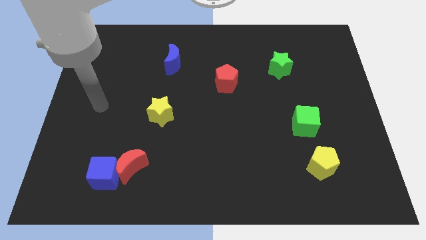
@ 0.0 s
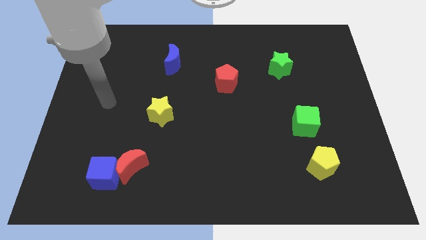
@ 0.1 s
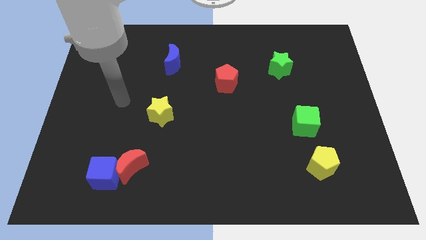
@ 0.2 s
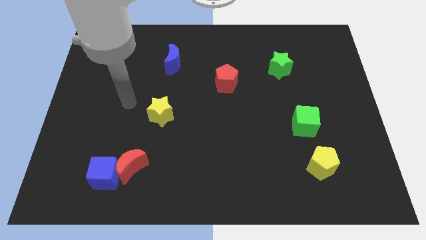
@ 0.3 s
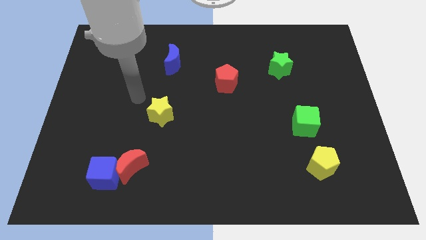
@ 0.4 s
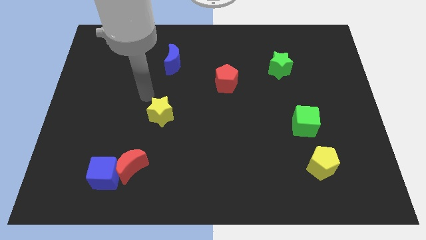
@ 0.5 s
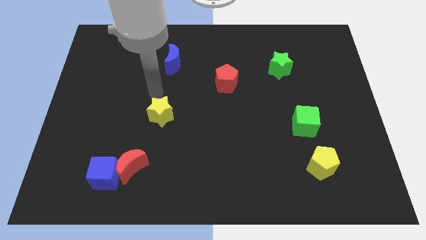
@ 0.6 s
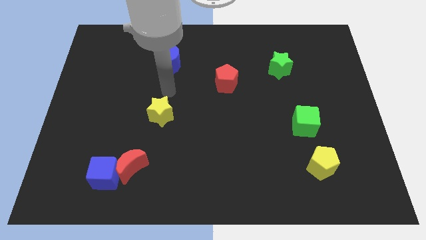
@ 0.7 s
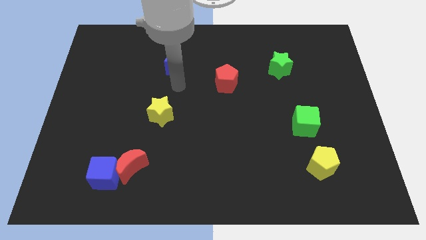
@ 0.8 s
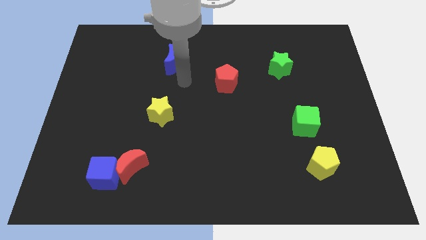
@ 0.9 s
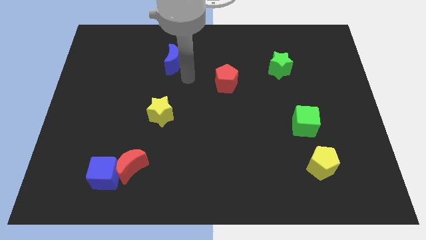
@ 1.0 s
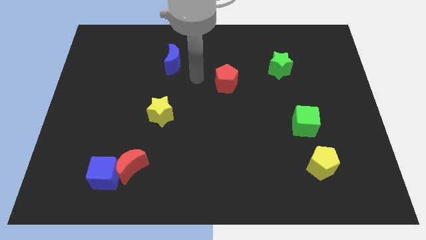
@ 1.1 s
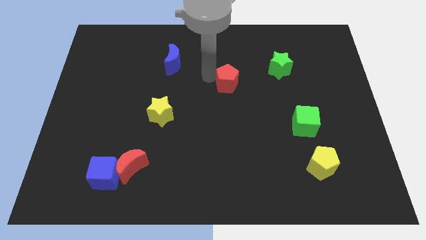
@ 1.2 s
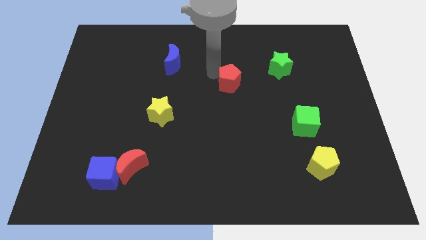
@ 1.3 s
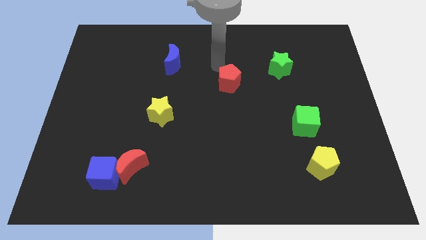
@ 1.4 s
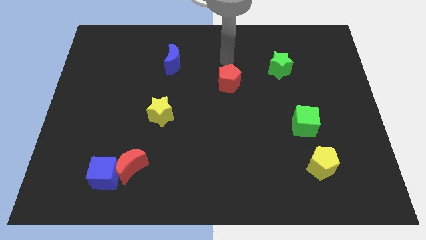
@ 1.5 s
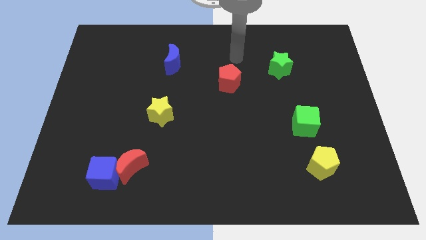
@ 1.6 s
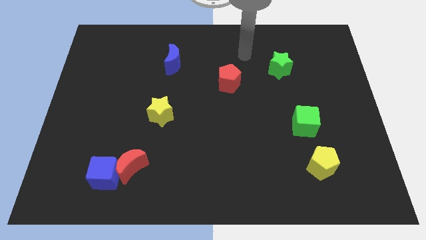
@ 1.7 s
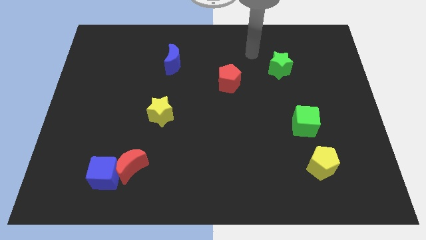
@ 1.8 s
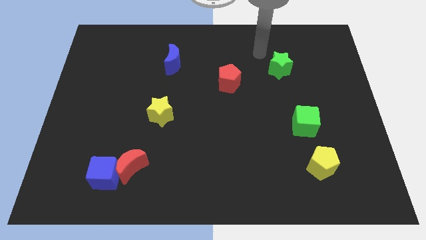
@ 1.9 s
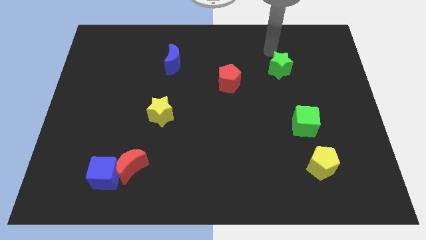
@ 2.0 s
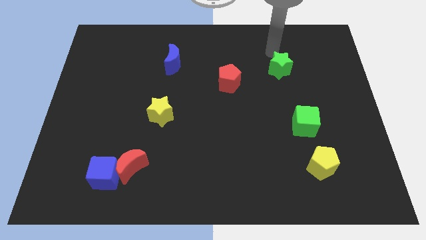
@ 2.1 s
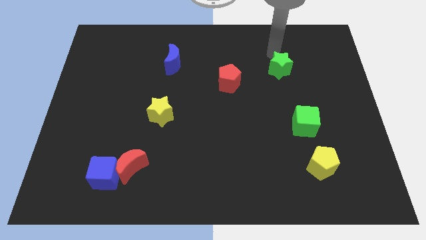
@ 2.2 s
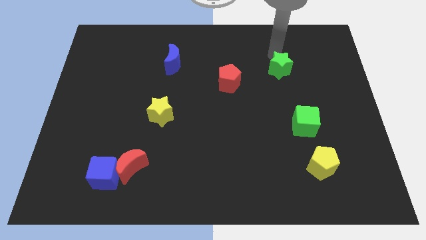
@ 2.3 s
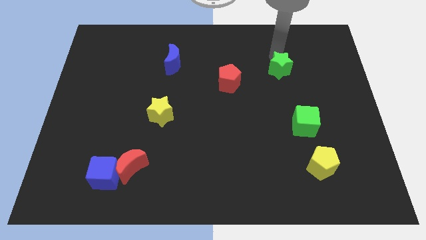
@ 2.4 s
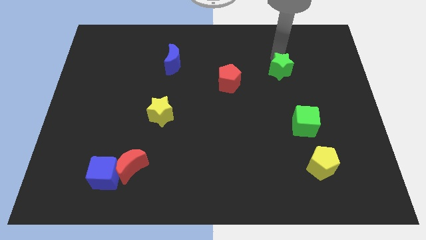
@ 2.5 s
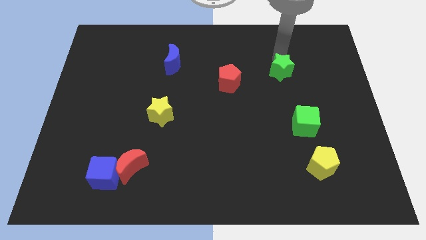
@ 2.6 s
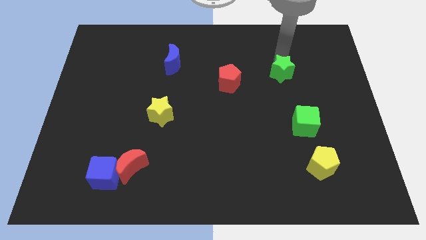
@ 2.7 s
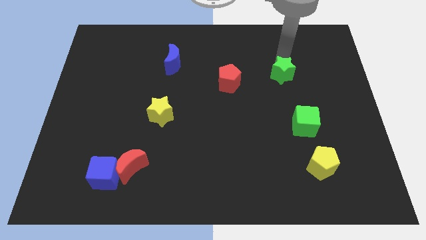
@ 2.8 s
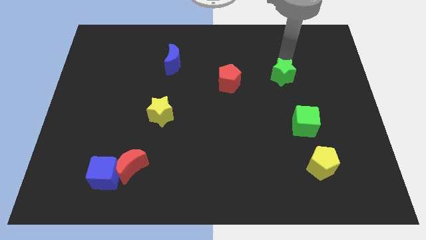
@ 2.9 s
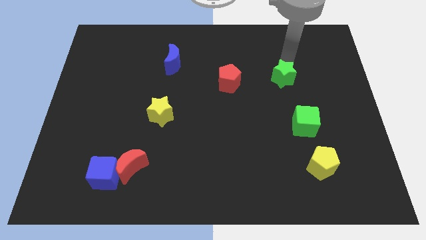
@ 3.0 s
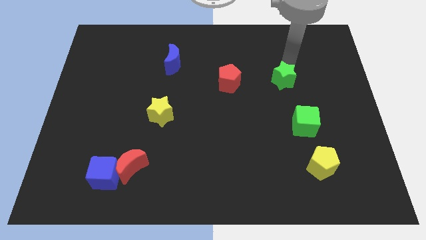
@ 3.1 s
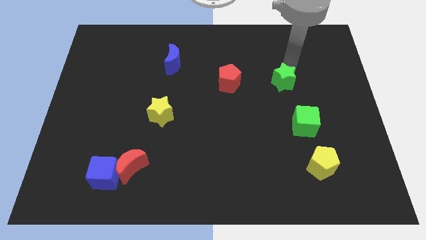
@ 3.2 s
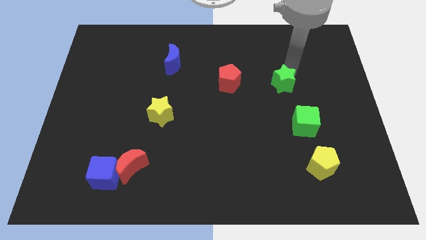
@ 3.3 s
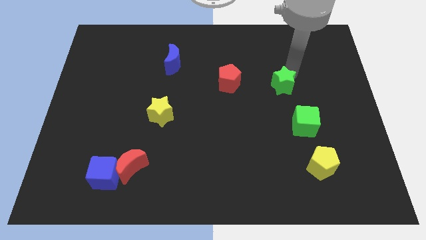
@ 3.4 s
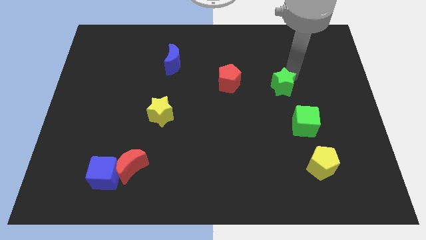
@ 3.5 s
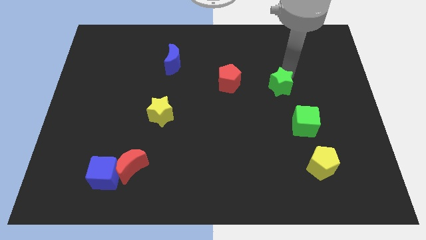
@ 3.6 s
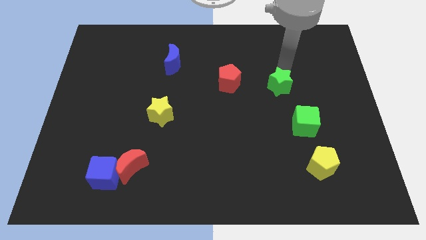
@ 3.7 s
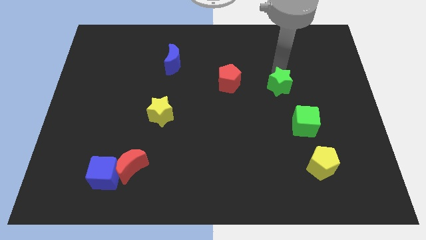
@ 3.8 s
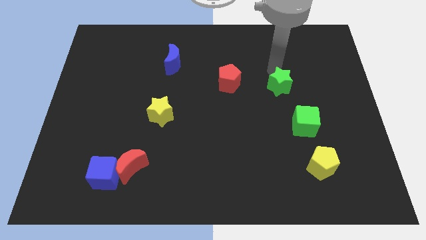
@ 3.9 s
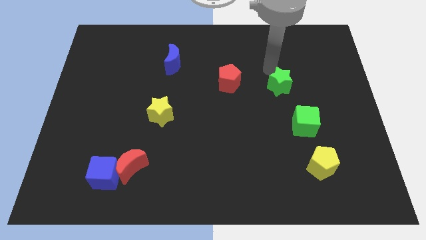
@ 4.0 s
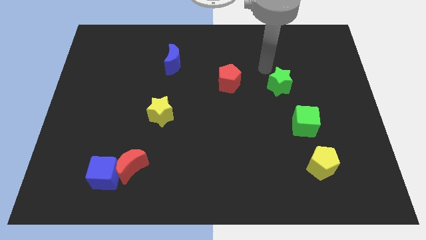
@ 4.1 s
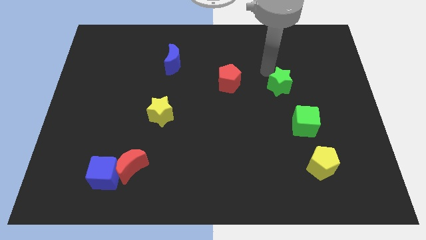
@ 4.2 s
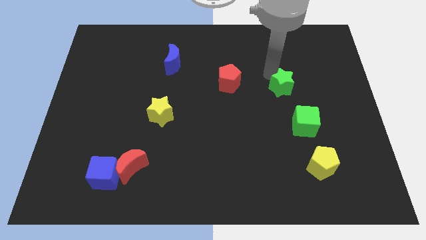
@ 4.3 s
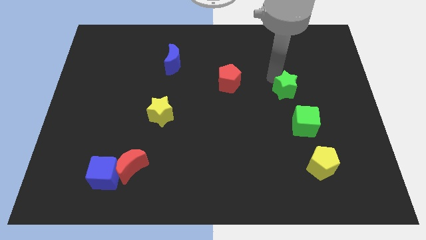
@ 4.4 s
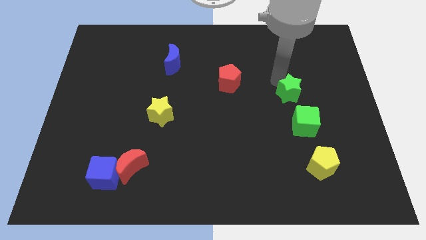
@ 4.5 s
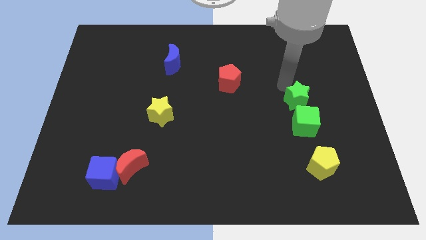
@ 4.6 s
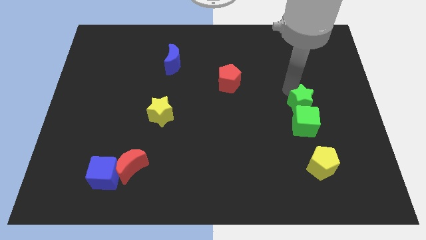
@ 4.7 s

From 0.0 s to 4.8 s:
move the green star to the green cube

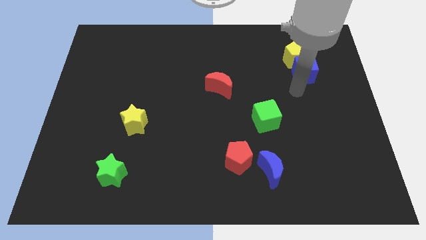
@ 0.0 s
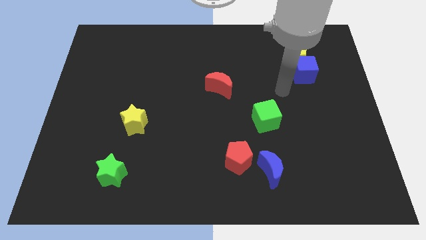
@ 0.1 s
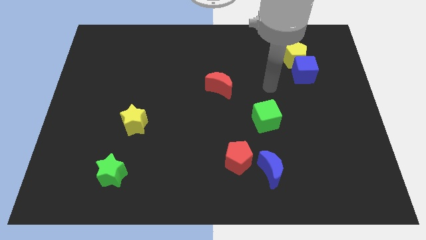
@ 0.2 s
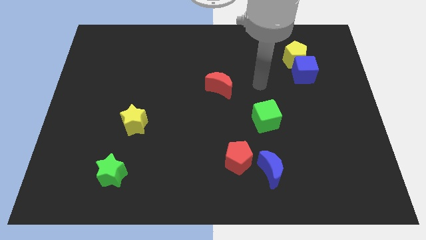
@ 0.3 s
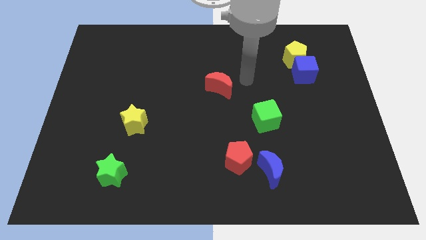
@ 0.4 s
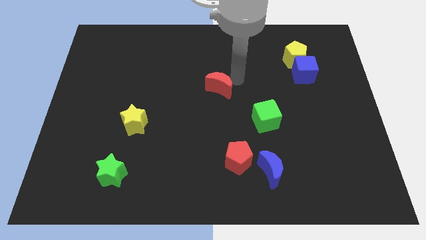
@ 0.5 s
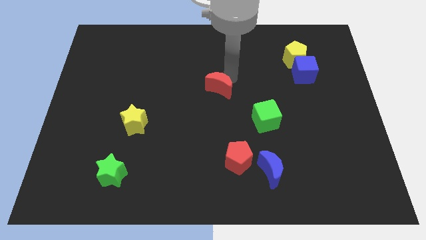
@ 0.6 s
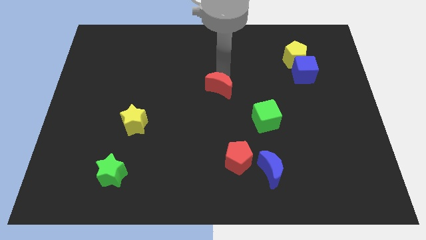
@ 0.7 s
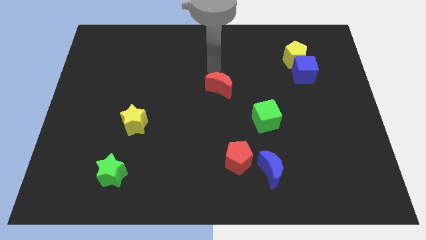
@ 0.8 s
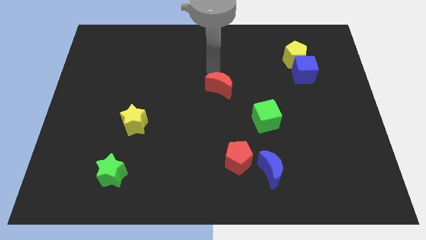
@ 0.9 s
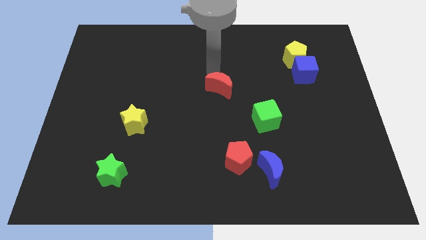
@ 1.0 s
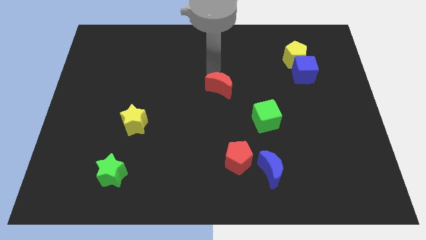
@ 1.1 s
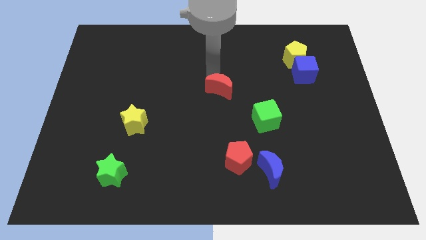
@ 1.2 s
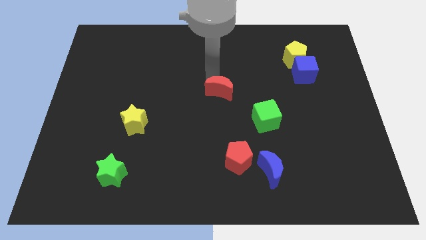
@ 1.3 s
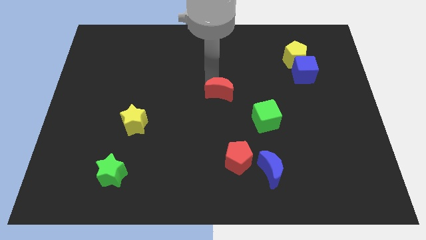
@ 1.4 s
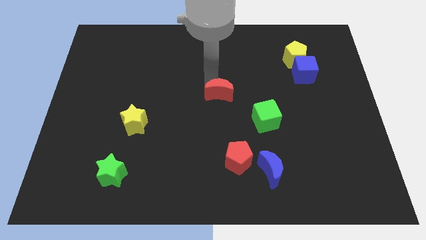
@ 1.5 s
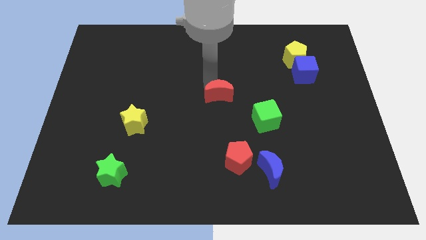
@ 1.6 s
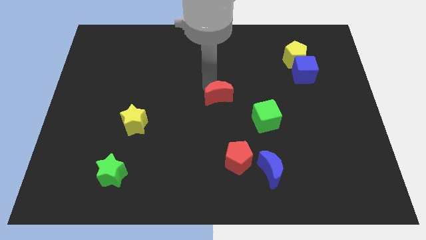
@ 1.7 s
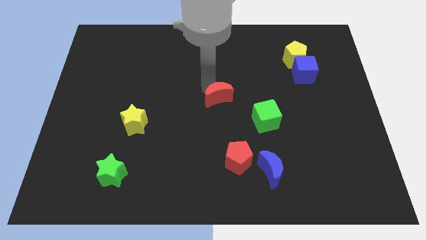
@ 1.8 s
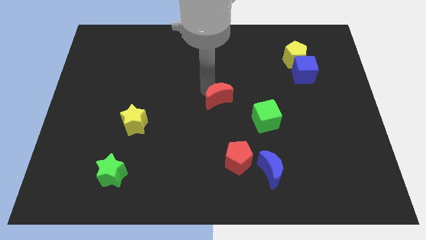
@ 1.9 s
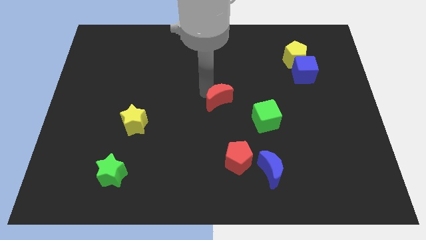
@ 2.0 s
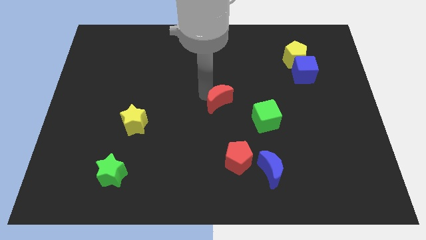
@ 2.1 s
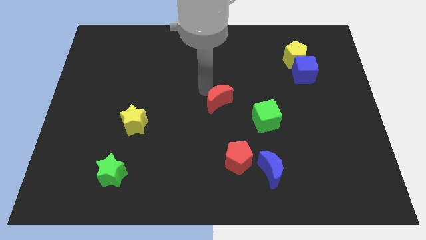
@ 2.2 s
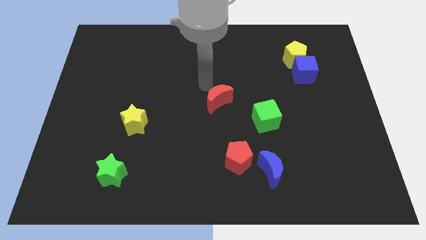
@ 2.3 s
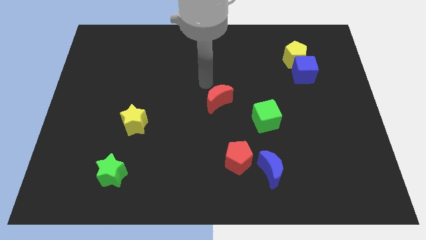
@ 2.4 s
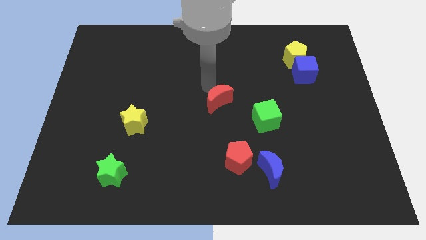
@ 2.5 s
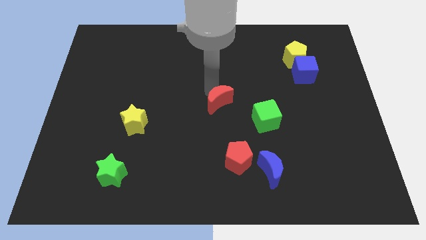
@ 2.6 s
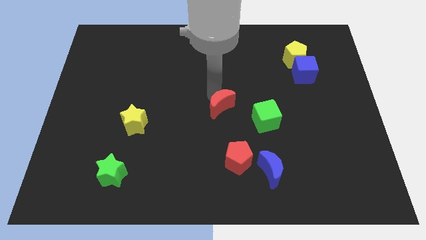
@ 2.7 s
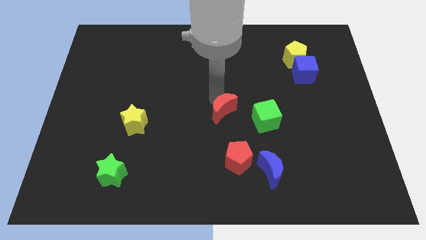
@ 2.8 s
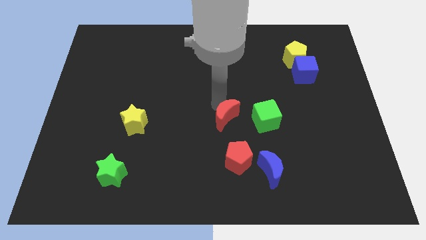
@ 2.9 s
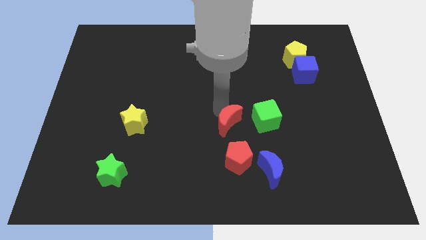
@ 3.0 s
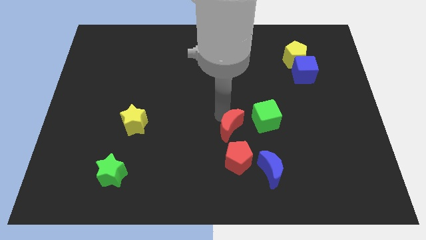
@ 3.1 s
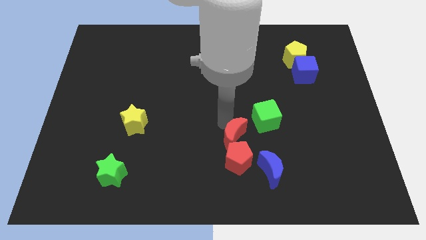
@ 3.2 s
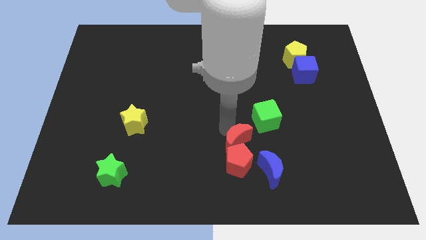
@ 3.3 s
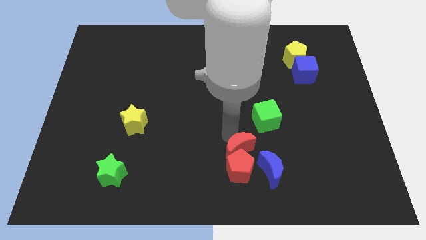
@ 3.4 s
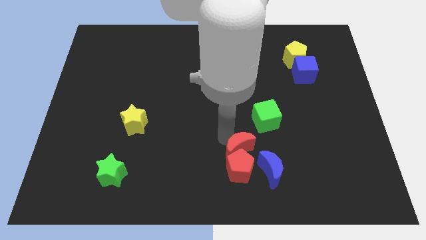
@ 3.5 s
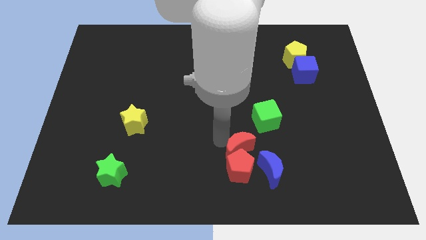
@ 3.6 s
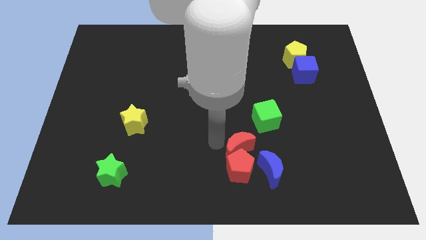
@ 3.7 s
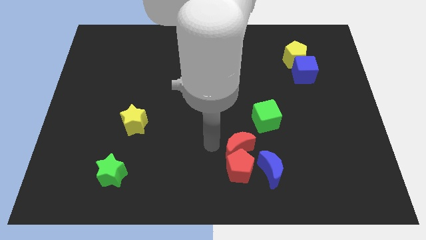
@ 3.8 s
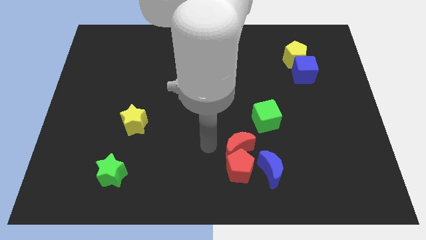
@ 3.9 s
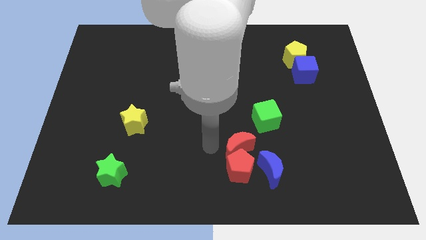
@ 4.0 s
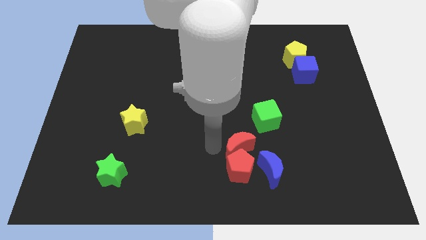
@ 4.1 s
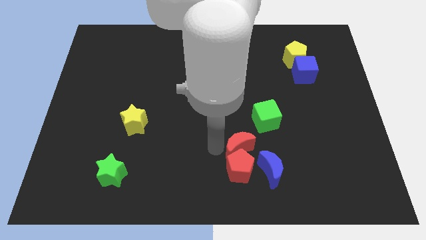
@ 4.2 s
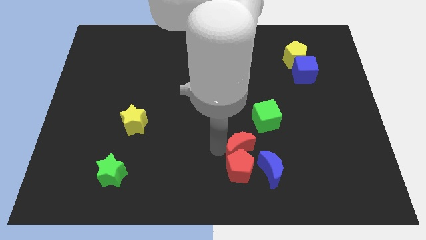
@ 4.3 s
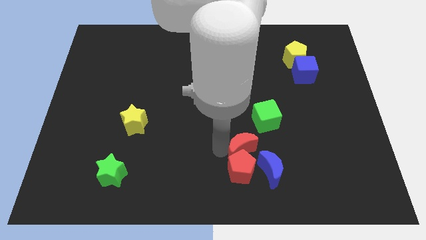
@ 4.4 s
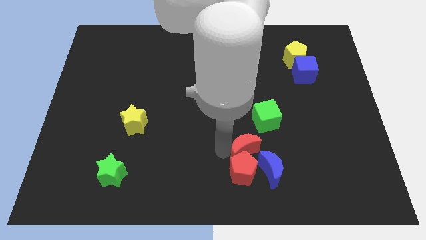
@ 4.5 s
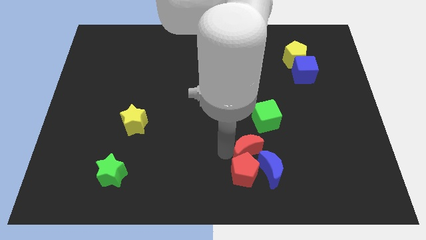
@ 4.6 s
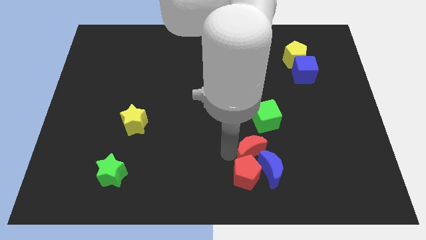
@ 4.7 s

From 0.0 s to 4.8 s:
put the red moon towards the blue moon
